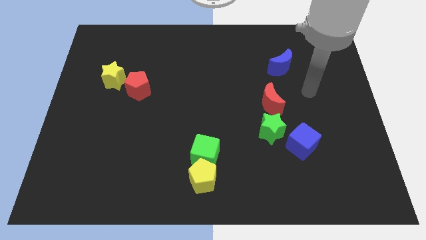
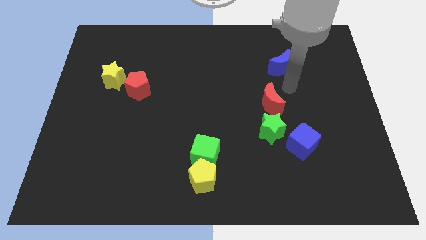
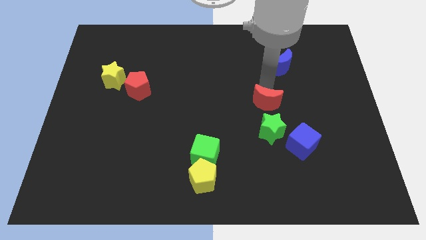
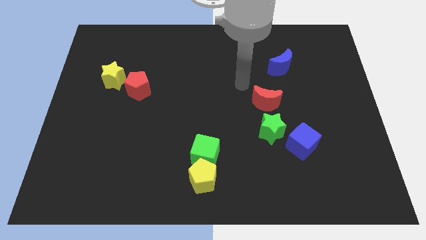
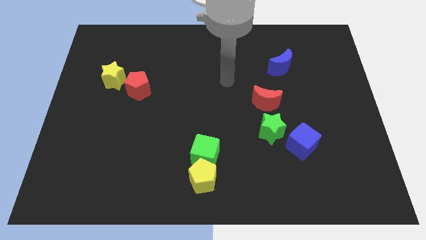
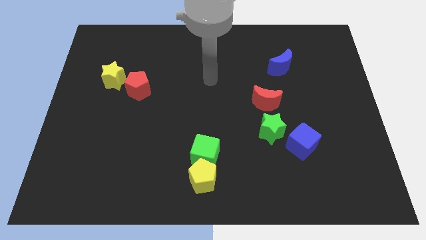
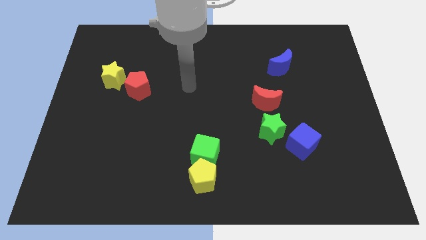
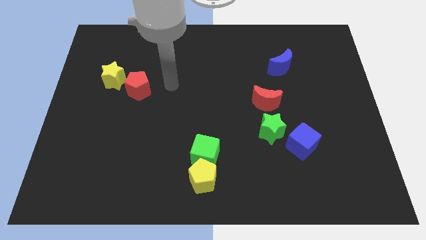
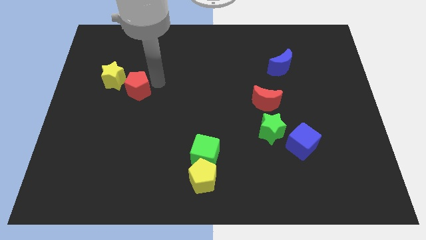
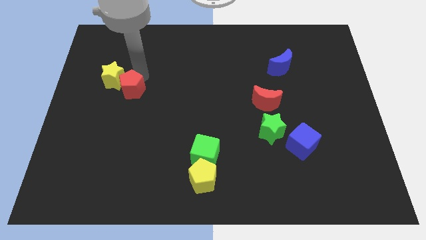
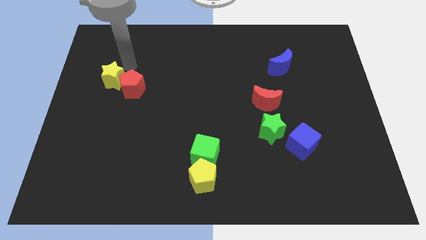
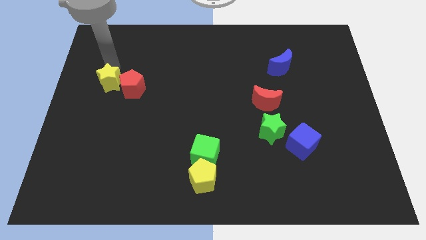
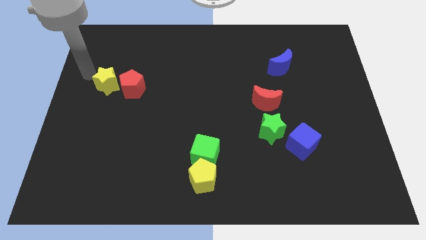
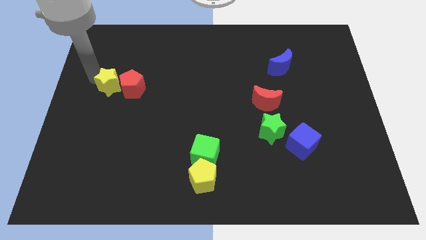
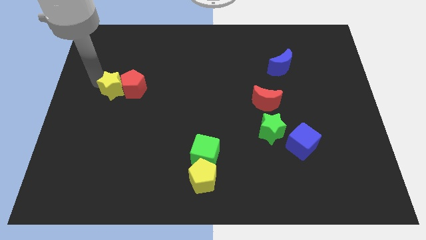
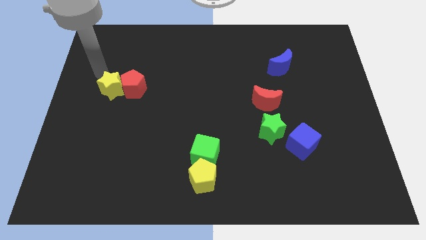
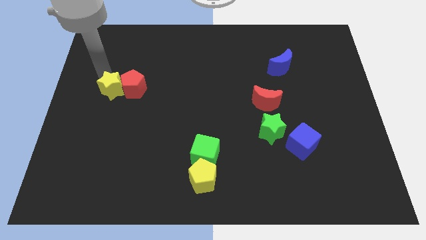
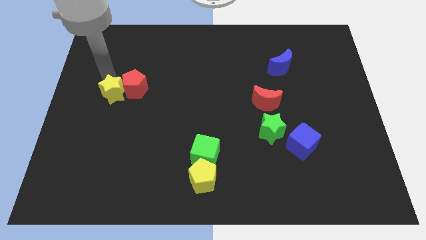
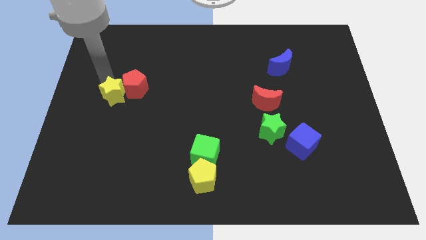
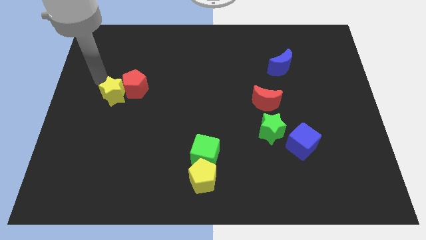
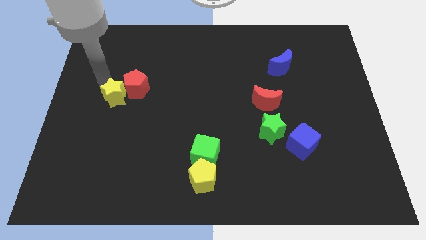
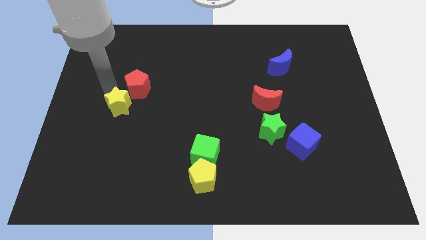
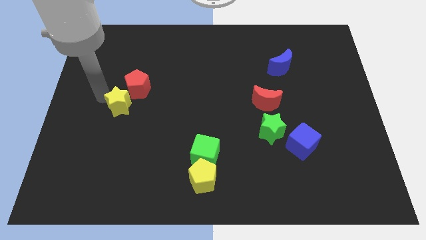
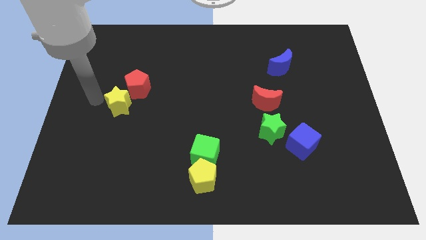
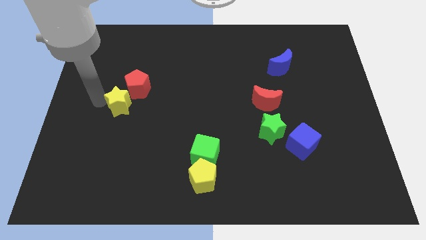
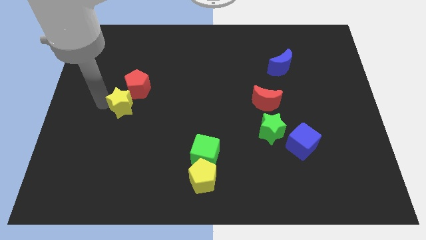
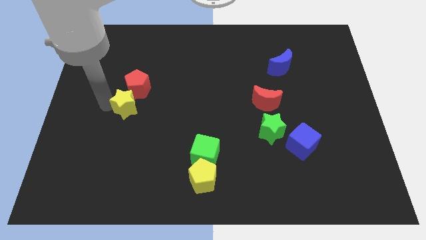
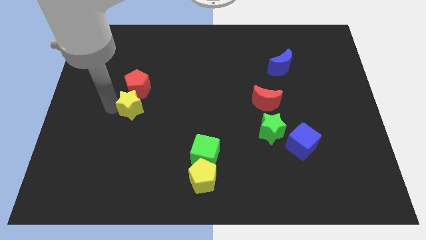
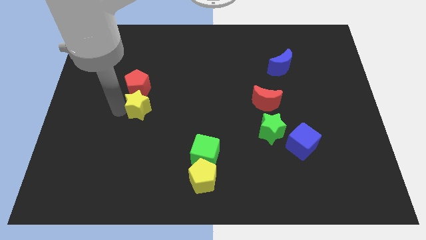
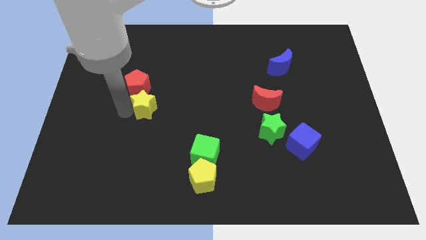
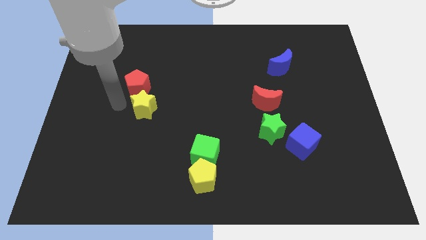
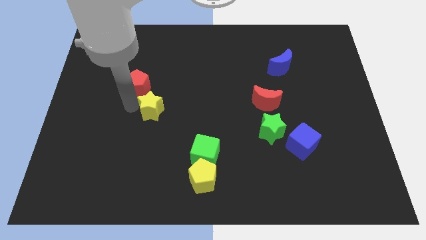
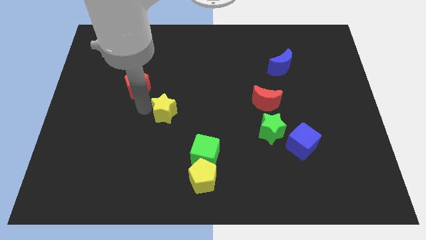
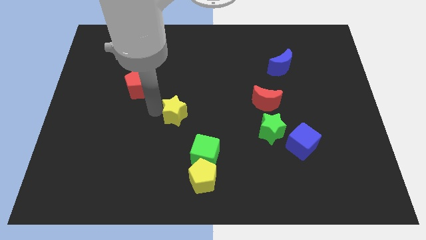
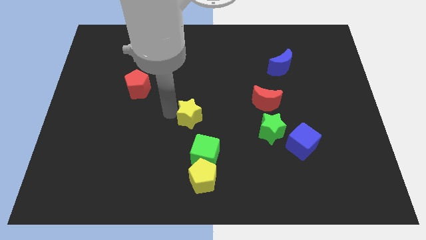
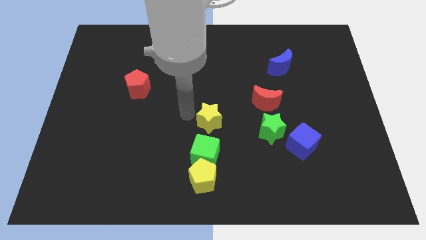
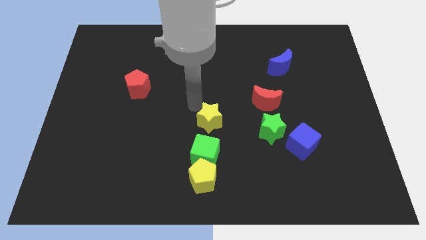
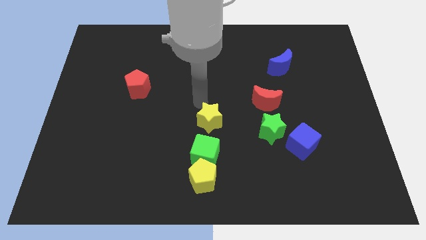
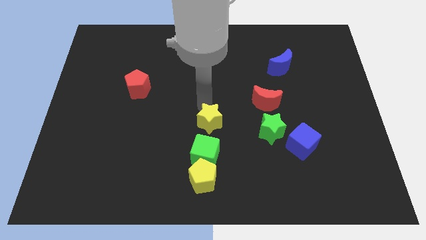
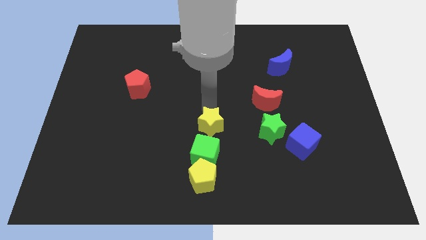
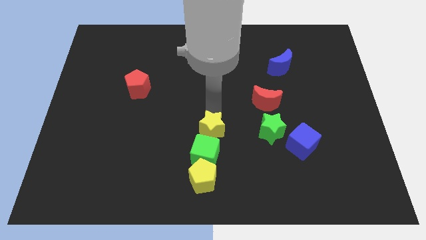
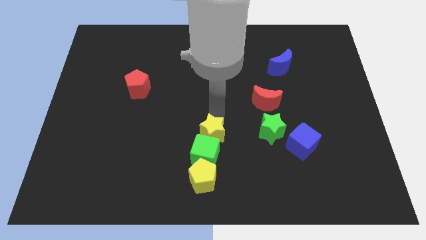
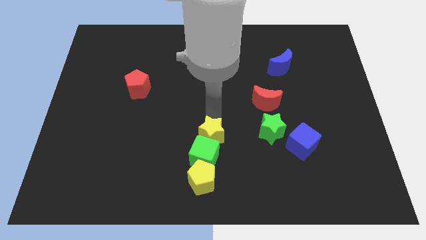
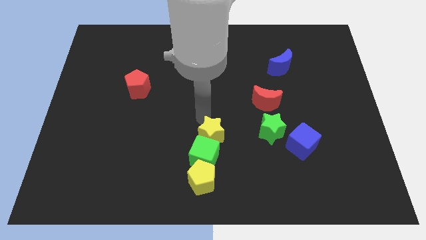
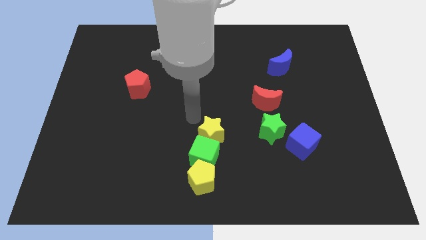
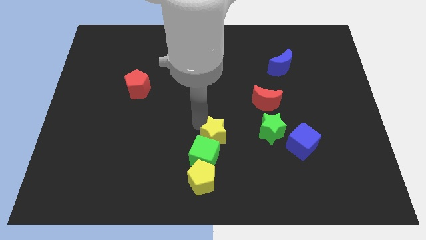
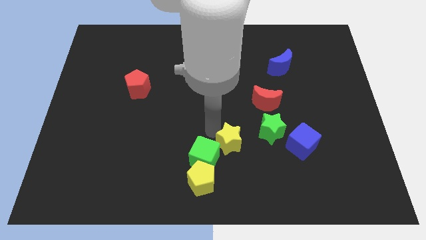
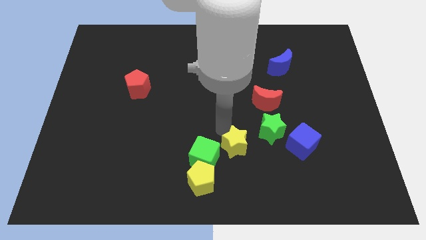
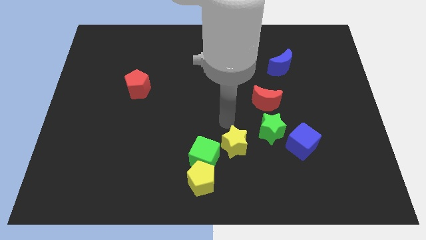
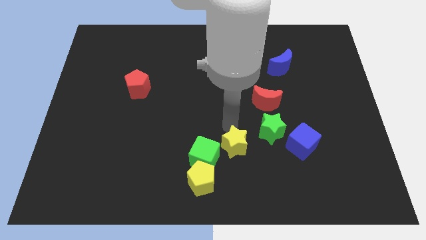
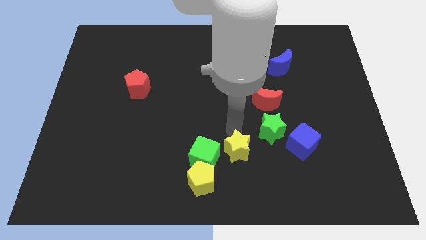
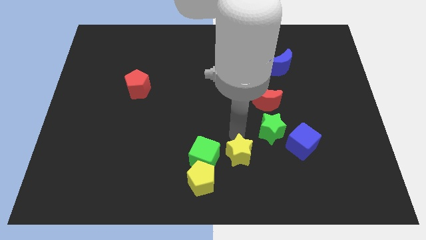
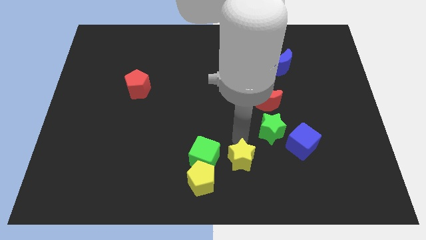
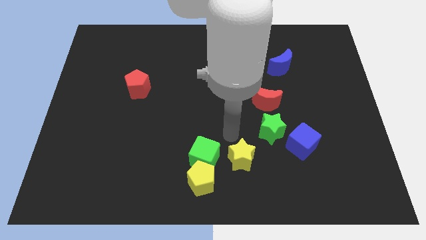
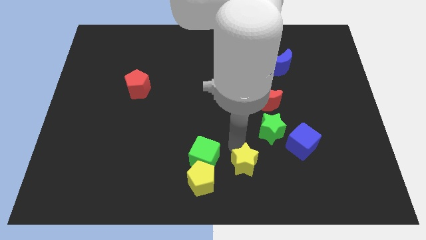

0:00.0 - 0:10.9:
move the yellow star right of the yellow pentagon

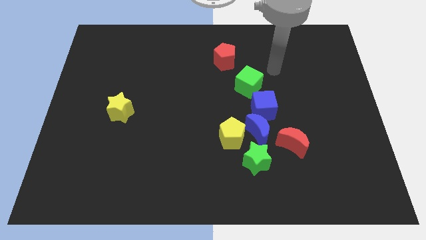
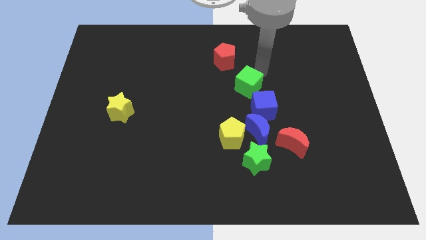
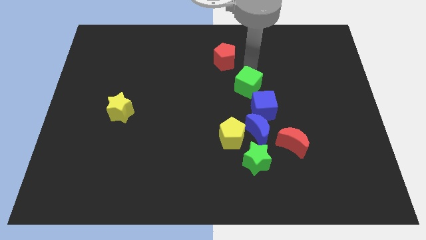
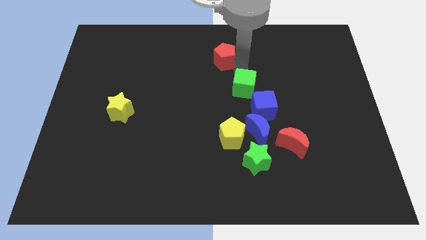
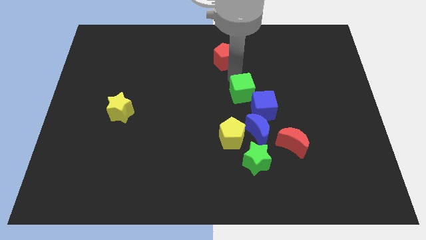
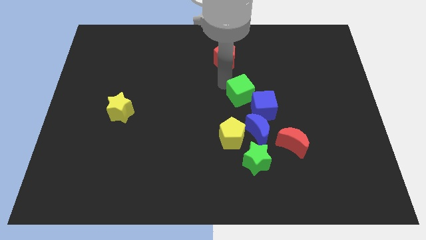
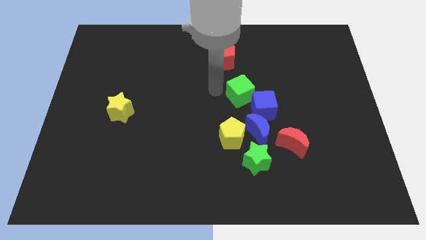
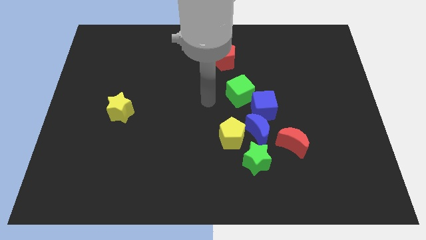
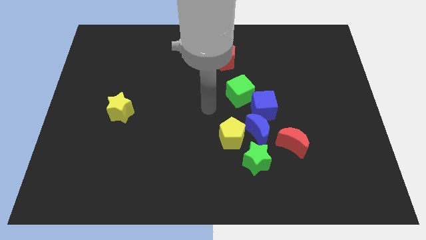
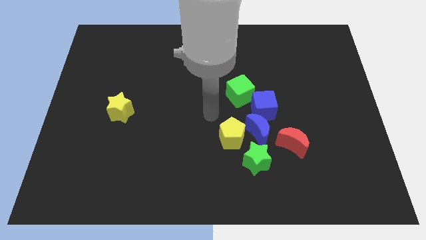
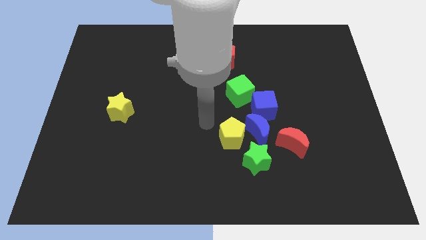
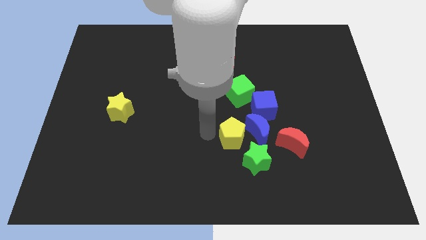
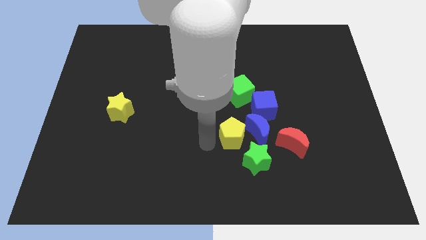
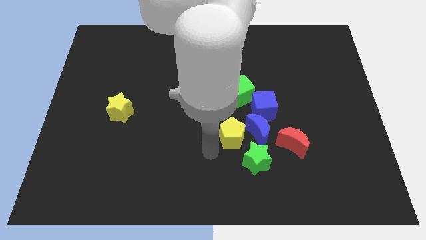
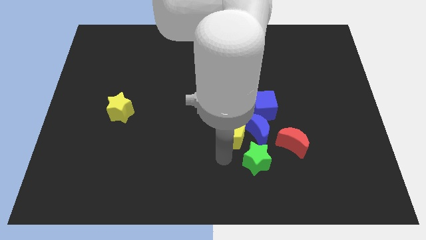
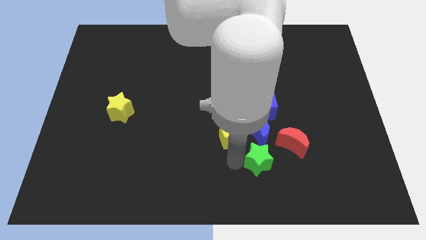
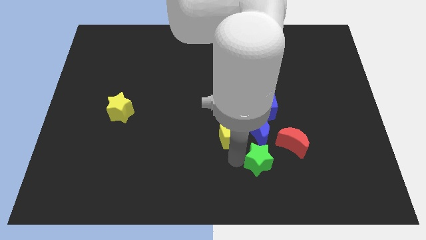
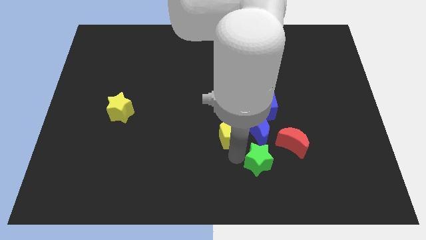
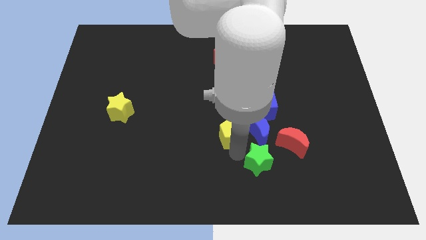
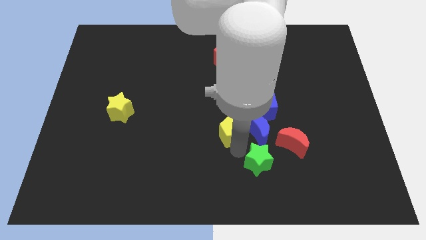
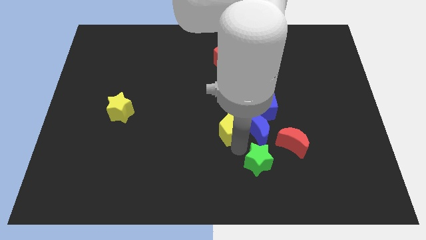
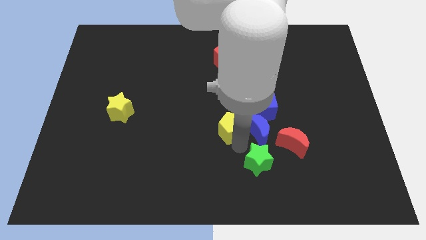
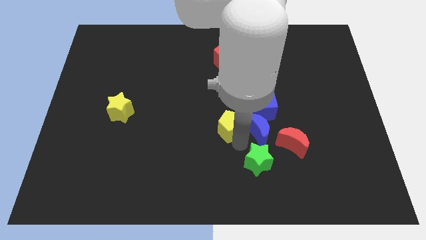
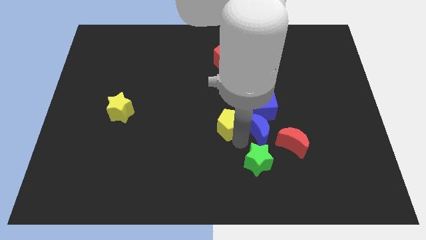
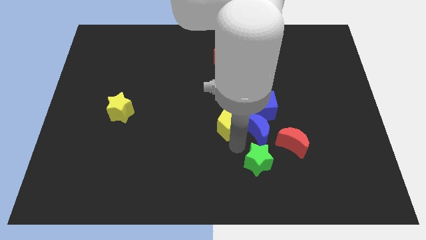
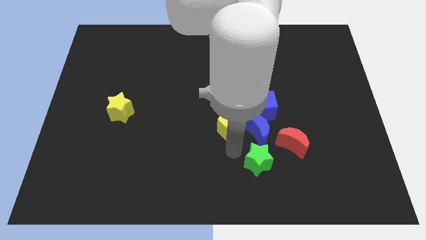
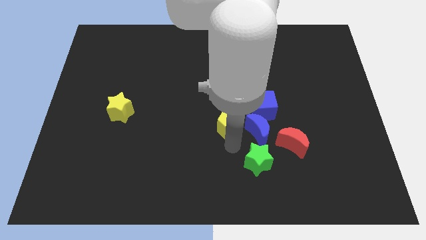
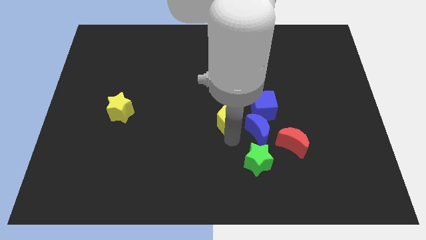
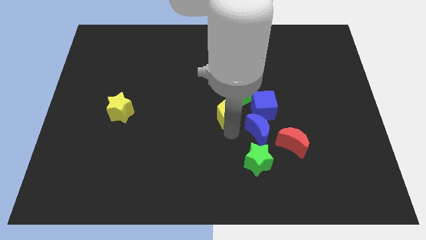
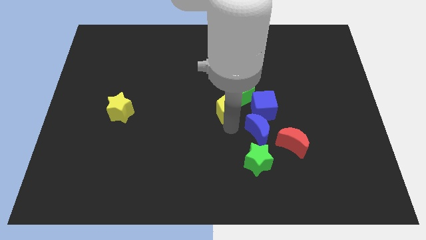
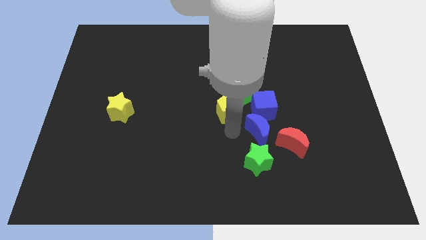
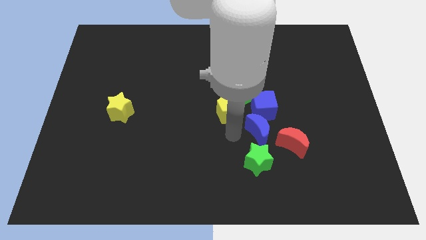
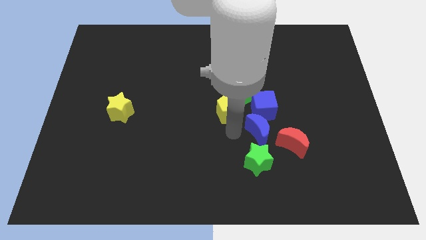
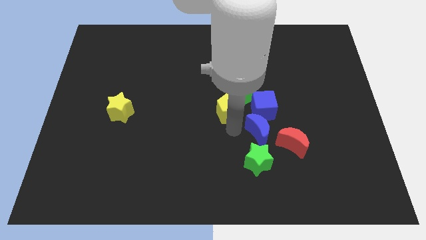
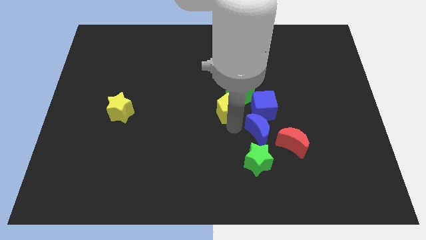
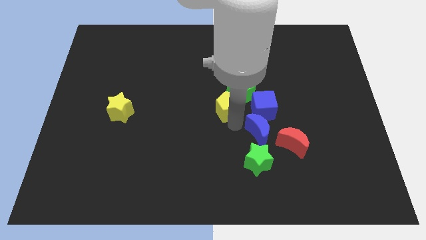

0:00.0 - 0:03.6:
slide the yellow pentagon to the bottom of the red pentagon
